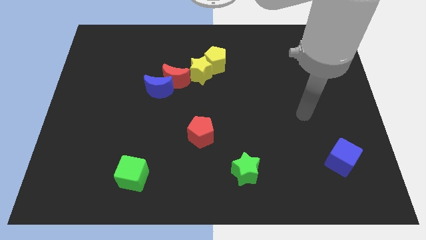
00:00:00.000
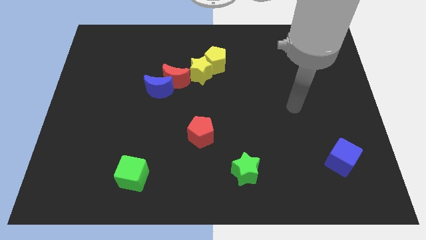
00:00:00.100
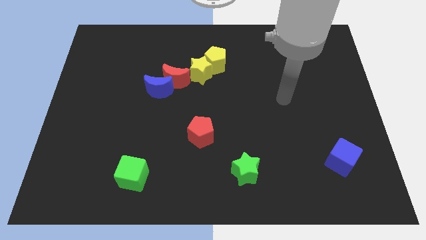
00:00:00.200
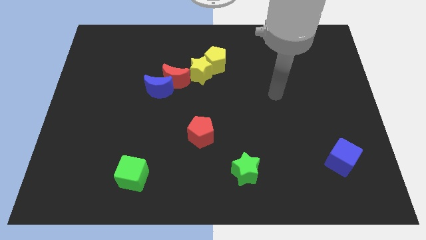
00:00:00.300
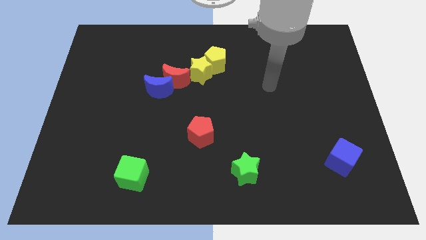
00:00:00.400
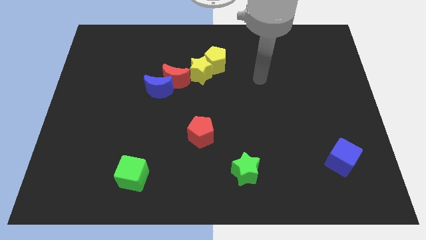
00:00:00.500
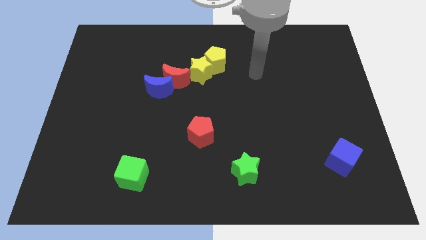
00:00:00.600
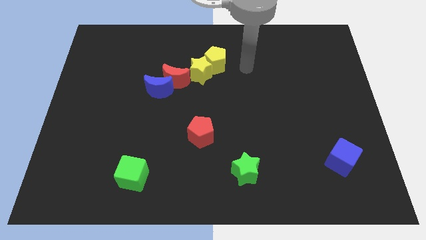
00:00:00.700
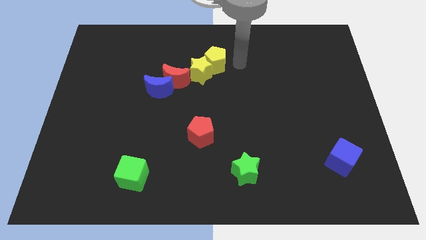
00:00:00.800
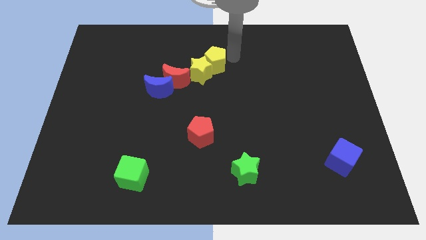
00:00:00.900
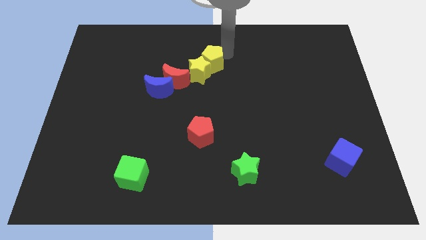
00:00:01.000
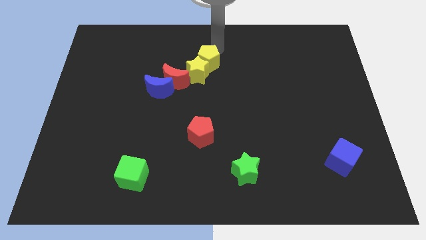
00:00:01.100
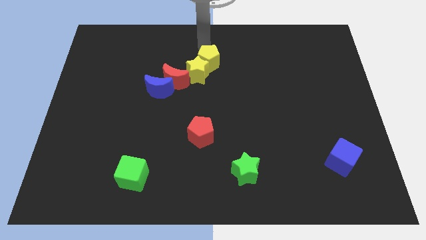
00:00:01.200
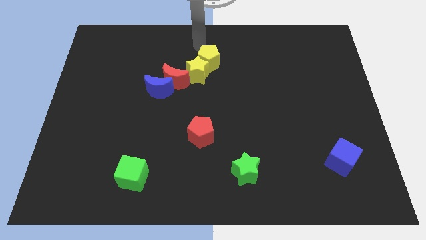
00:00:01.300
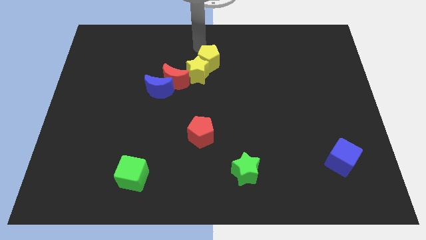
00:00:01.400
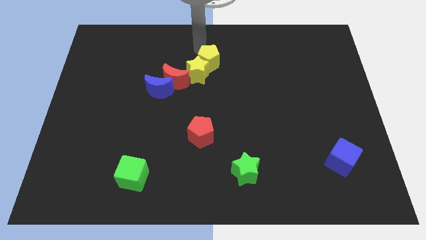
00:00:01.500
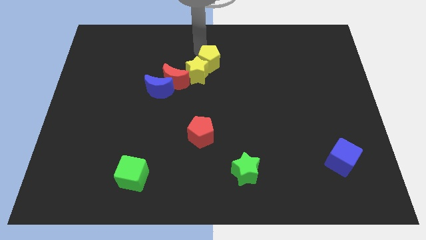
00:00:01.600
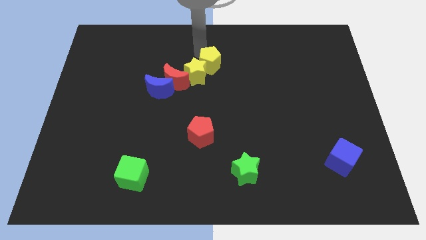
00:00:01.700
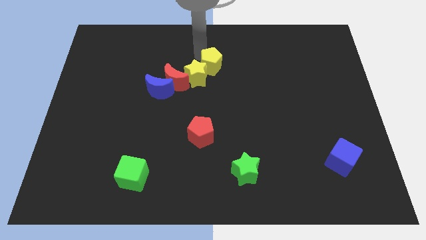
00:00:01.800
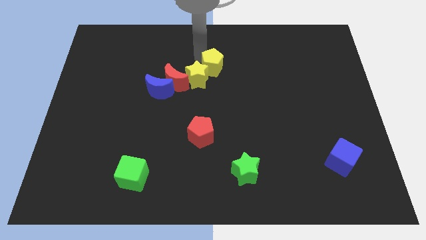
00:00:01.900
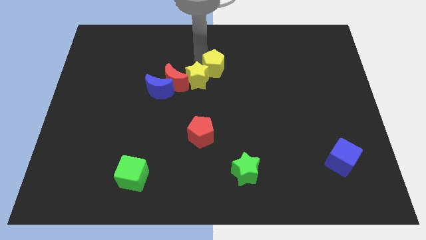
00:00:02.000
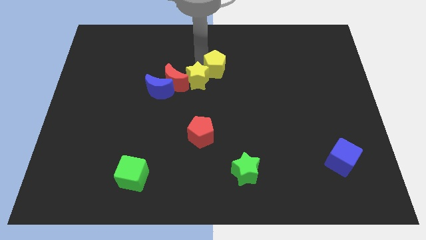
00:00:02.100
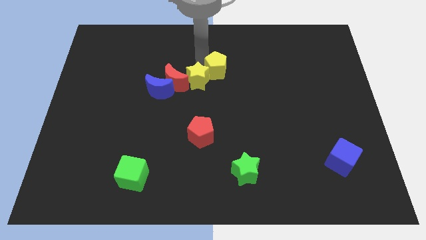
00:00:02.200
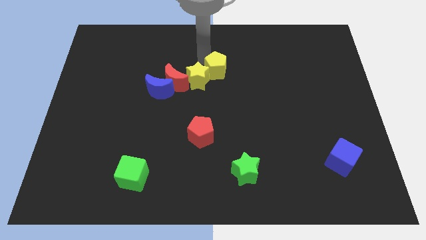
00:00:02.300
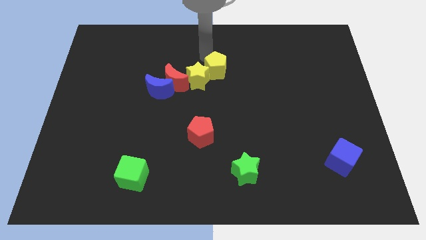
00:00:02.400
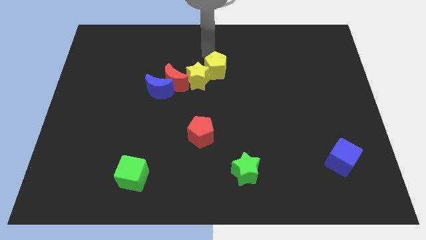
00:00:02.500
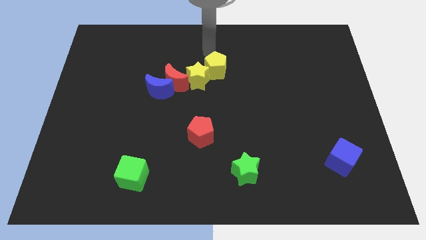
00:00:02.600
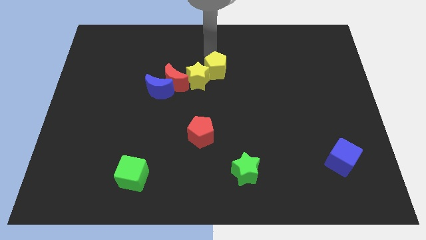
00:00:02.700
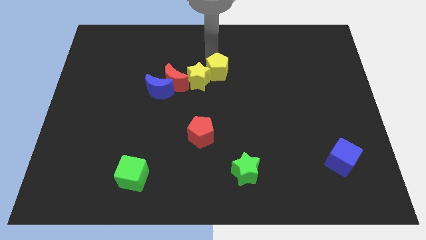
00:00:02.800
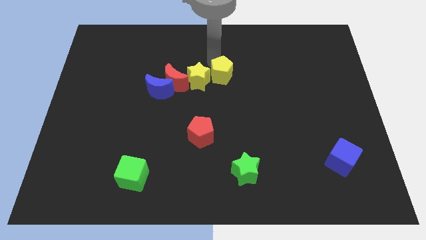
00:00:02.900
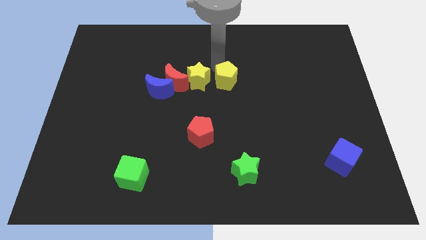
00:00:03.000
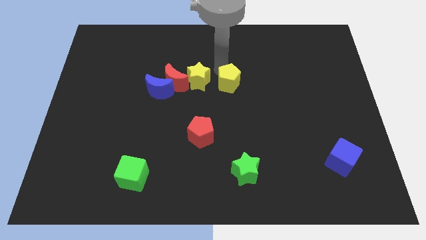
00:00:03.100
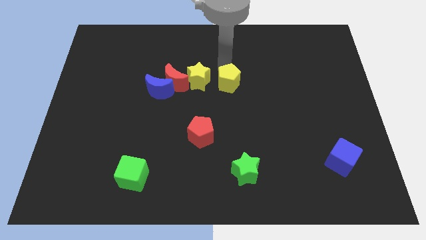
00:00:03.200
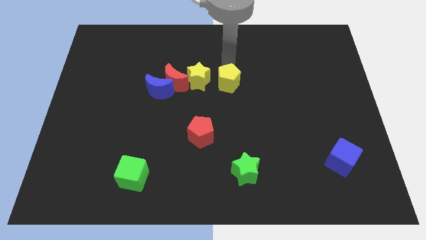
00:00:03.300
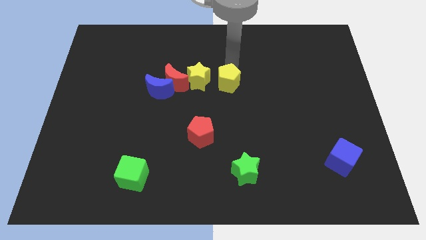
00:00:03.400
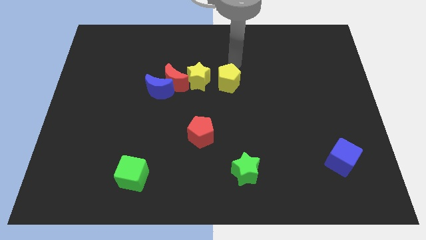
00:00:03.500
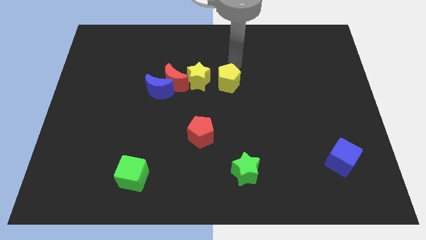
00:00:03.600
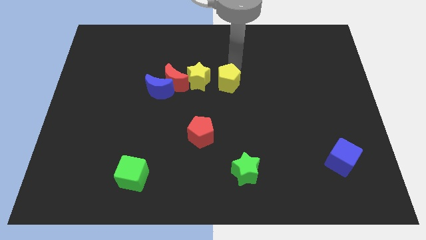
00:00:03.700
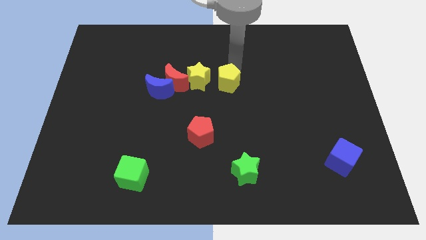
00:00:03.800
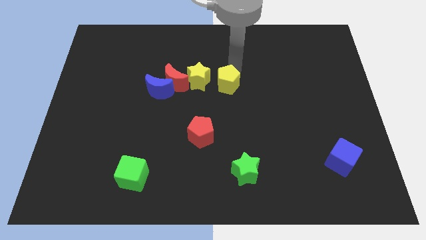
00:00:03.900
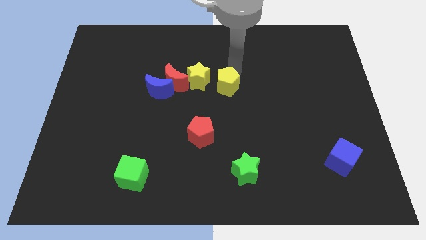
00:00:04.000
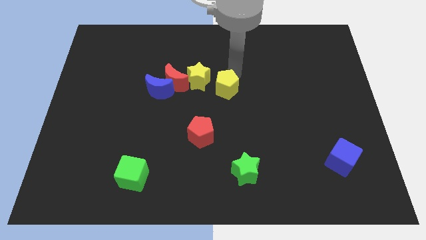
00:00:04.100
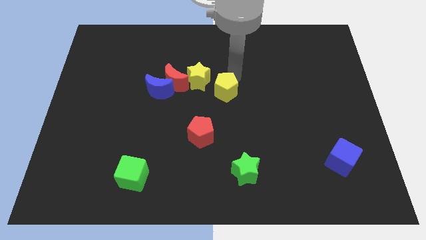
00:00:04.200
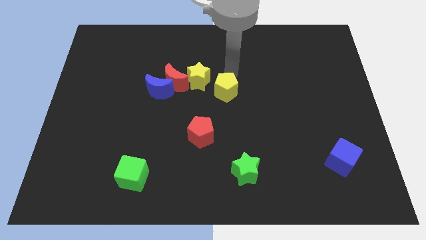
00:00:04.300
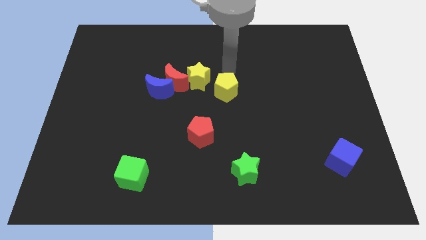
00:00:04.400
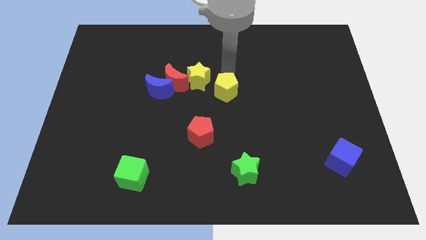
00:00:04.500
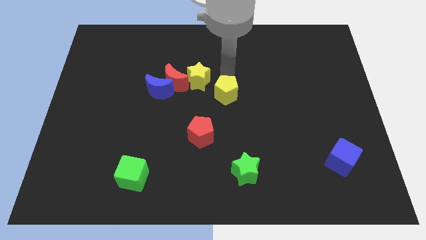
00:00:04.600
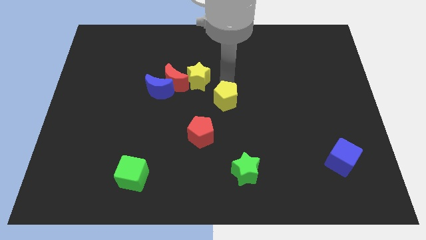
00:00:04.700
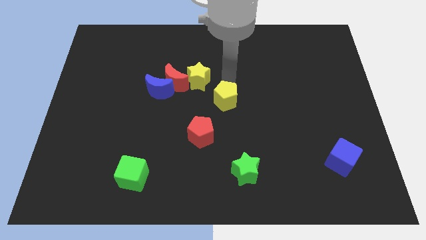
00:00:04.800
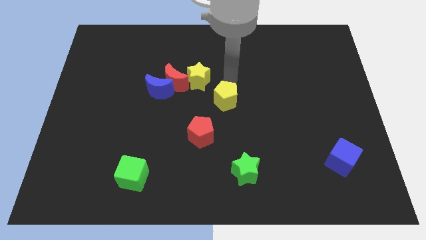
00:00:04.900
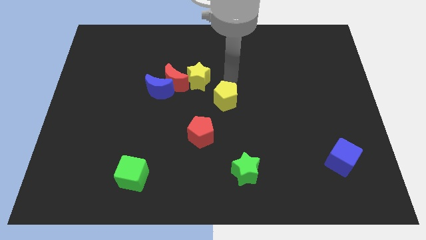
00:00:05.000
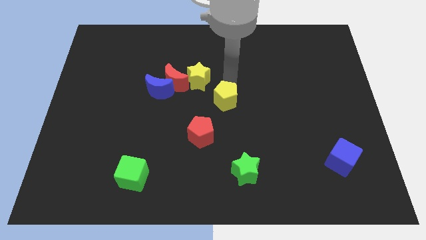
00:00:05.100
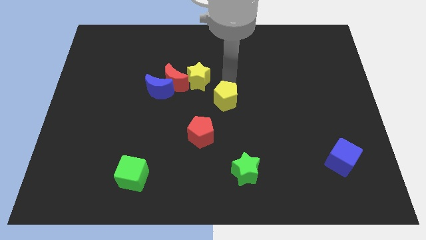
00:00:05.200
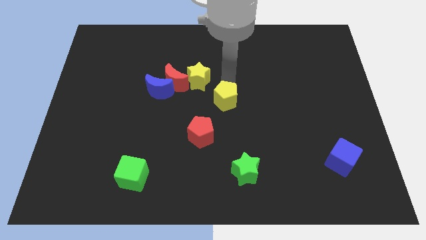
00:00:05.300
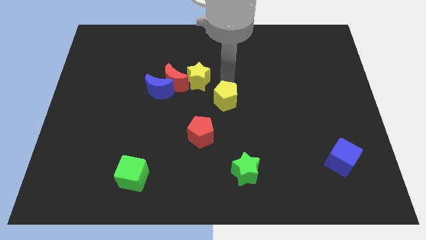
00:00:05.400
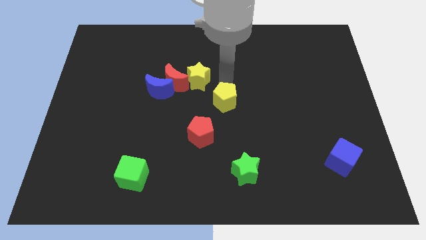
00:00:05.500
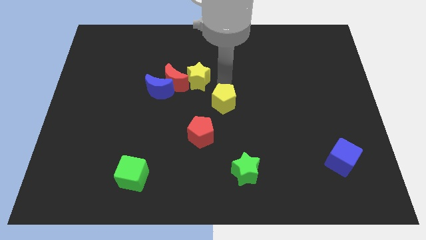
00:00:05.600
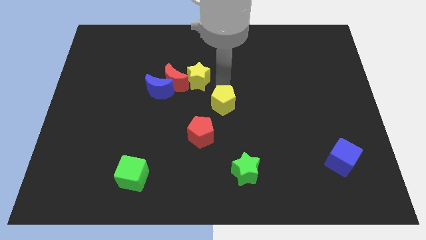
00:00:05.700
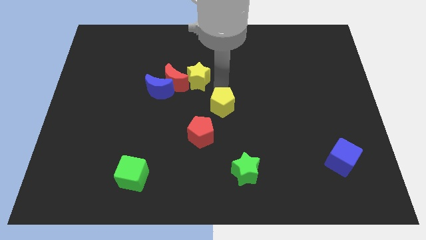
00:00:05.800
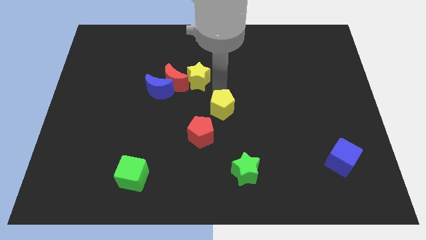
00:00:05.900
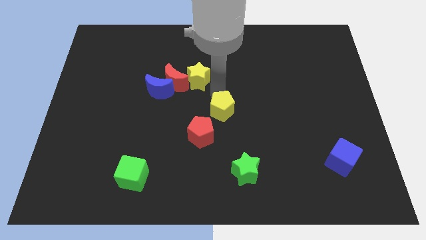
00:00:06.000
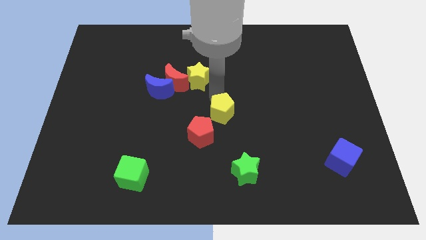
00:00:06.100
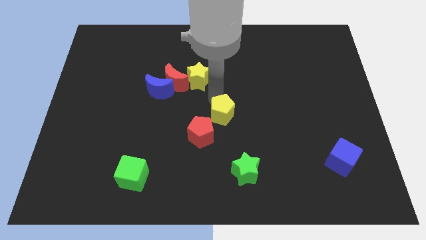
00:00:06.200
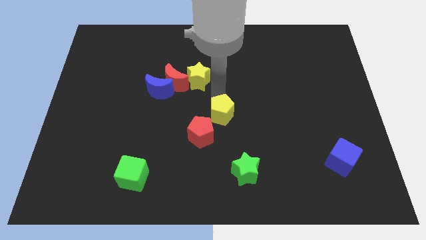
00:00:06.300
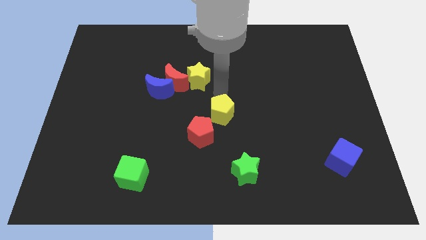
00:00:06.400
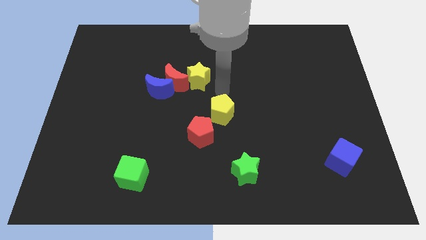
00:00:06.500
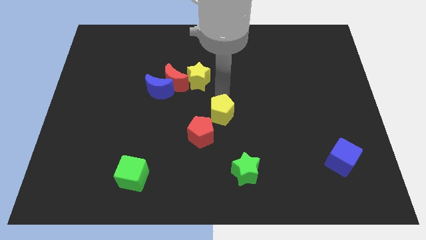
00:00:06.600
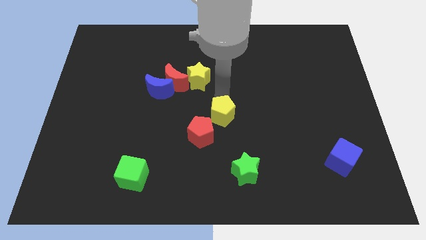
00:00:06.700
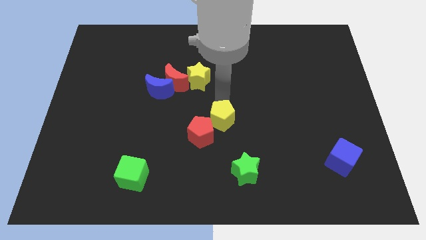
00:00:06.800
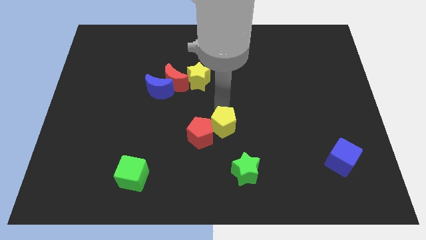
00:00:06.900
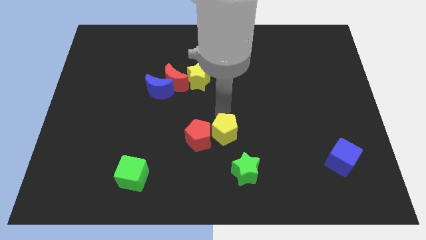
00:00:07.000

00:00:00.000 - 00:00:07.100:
move the yellow pentagon downwards

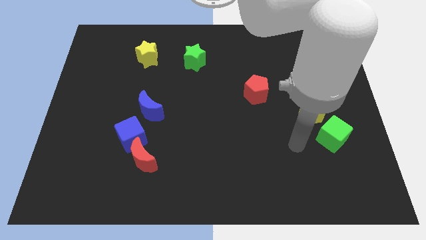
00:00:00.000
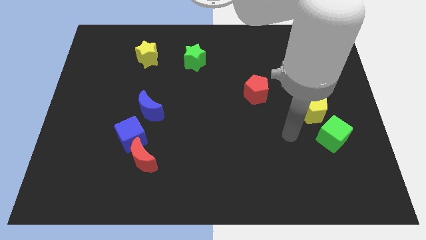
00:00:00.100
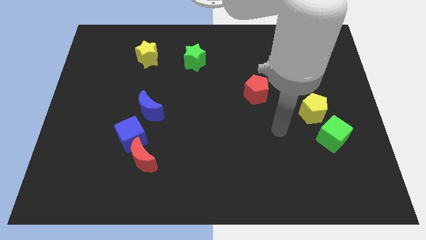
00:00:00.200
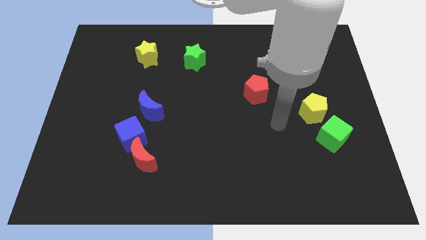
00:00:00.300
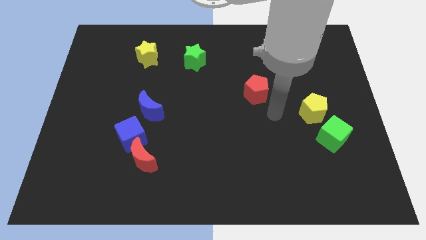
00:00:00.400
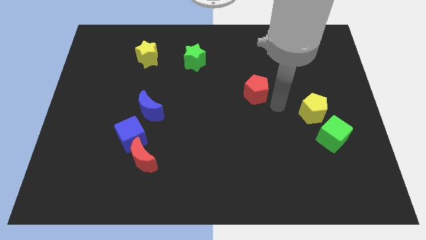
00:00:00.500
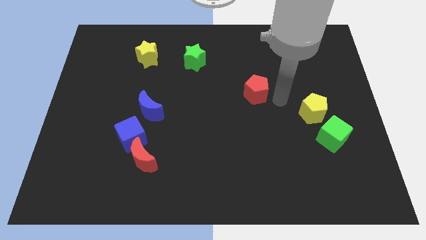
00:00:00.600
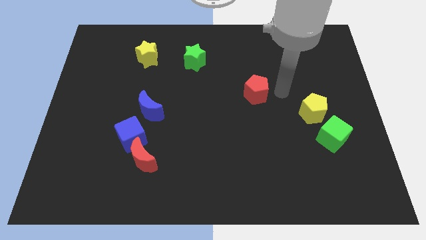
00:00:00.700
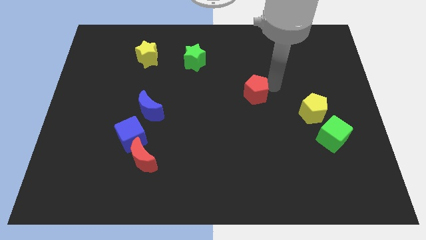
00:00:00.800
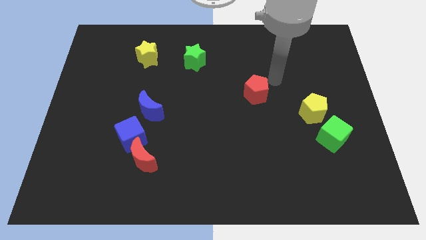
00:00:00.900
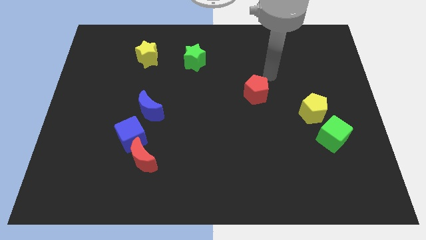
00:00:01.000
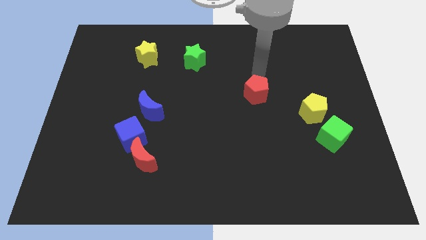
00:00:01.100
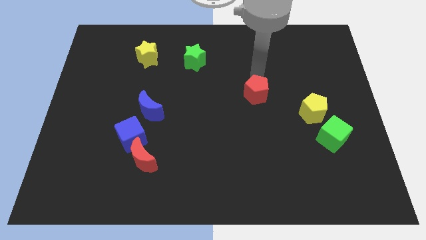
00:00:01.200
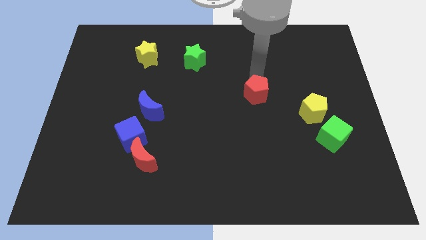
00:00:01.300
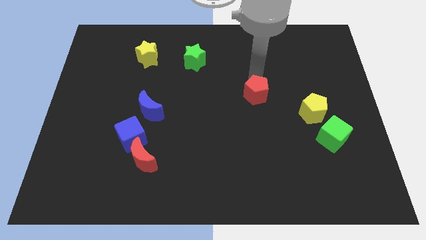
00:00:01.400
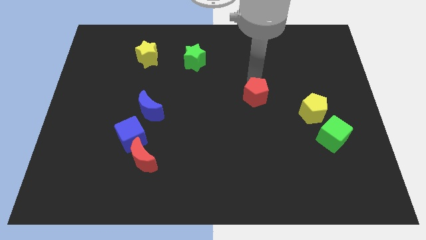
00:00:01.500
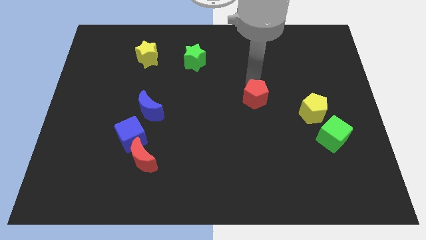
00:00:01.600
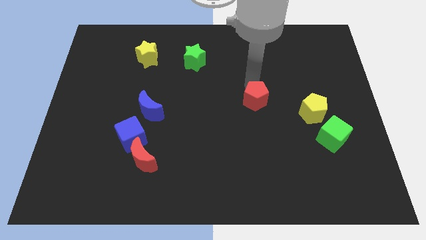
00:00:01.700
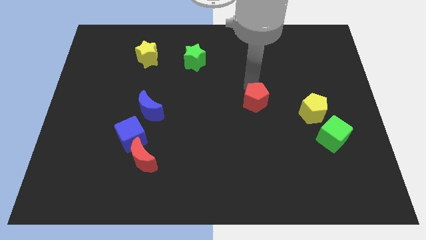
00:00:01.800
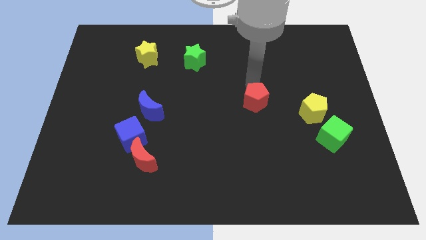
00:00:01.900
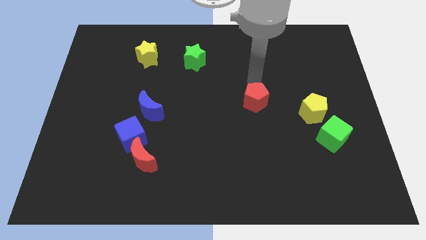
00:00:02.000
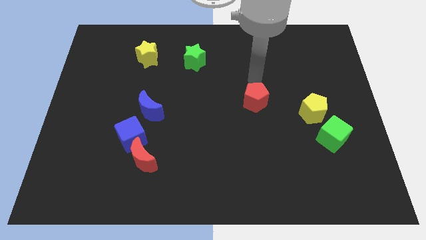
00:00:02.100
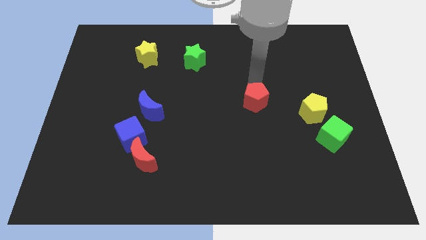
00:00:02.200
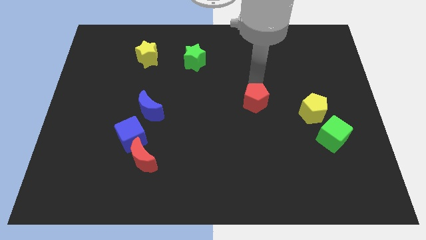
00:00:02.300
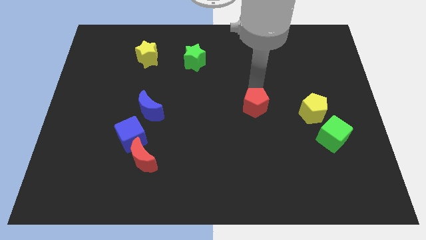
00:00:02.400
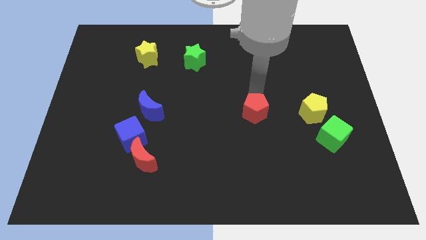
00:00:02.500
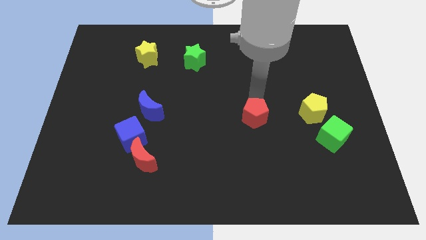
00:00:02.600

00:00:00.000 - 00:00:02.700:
push the red pentagon somewhat down
